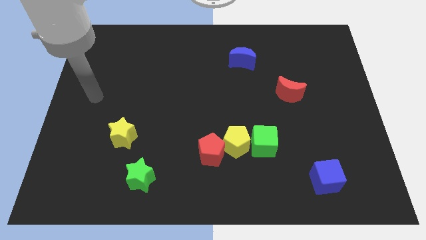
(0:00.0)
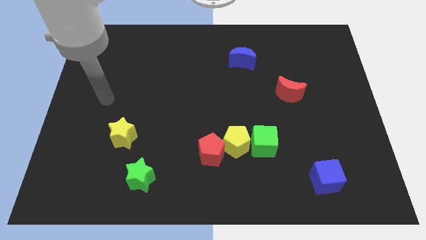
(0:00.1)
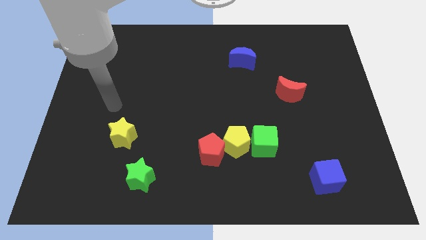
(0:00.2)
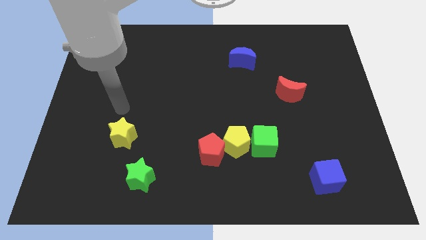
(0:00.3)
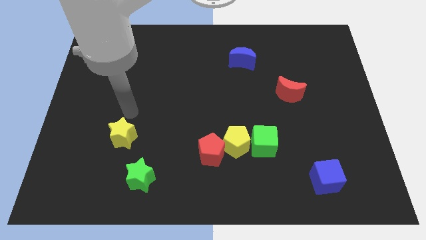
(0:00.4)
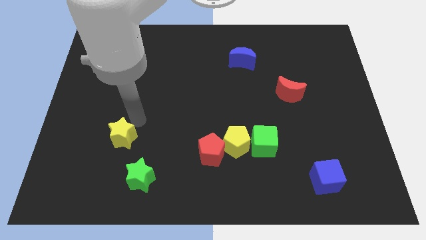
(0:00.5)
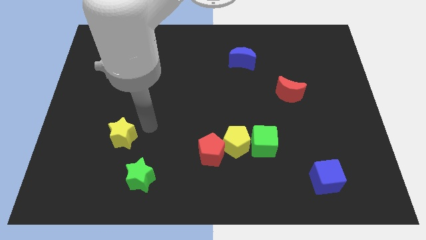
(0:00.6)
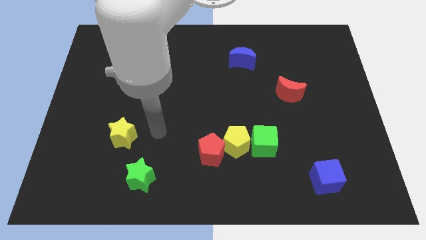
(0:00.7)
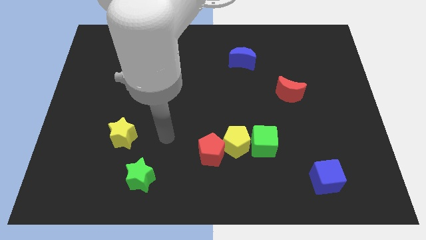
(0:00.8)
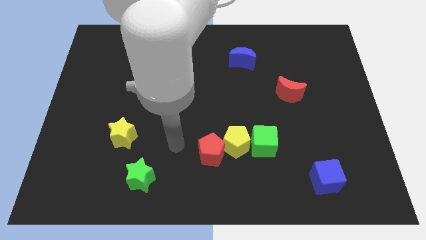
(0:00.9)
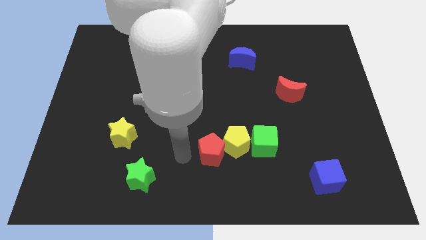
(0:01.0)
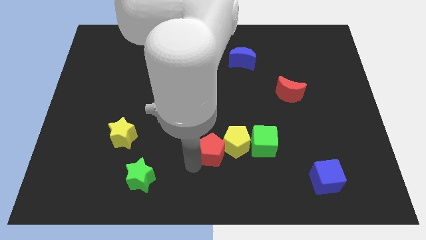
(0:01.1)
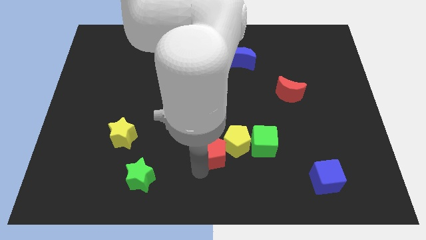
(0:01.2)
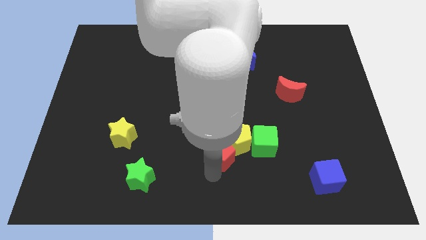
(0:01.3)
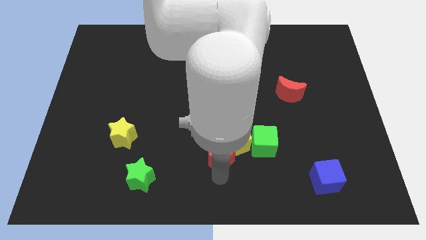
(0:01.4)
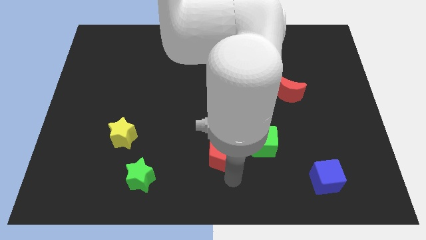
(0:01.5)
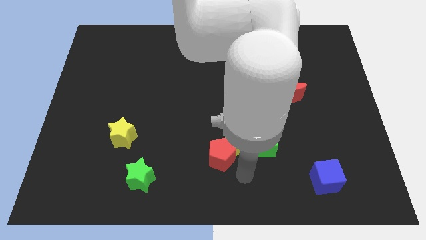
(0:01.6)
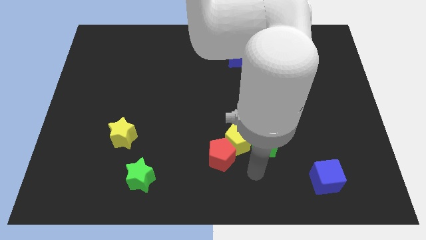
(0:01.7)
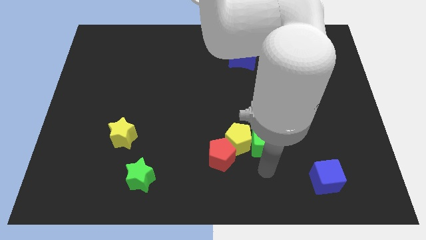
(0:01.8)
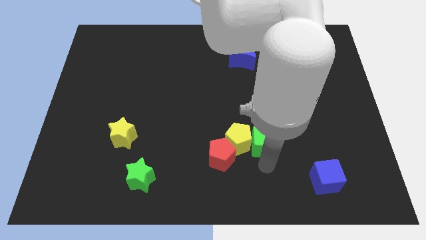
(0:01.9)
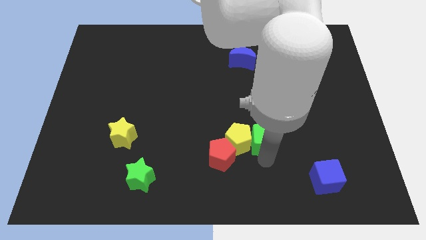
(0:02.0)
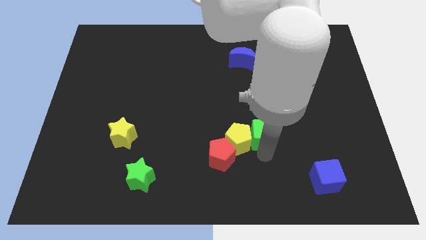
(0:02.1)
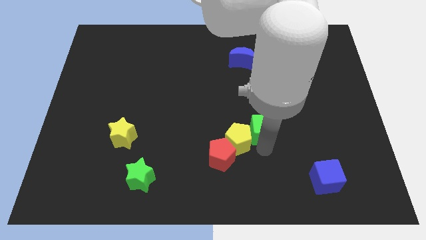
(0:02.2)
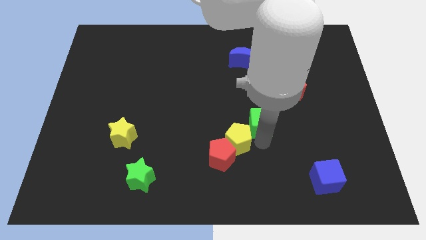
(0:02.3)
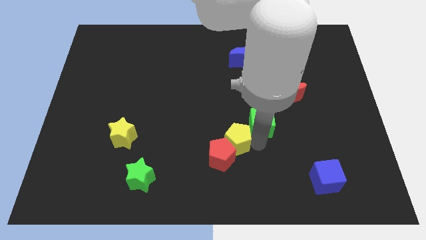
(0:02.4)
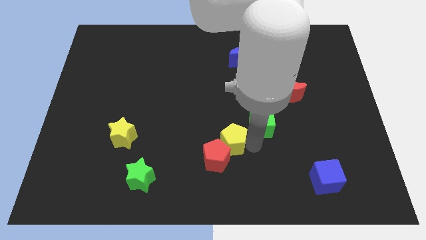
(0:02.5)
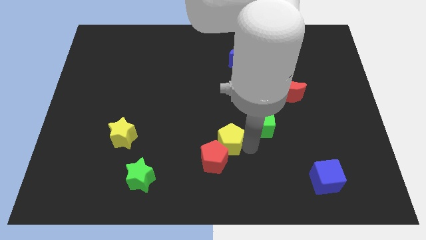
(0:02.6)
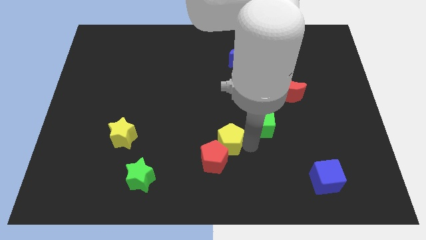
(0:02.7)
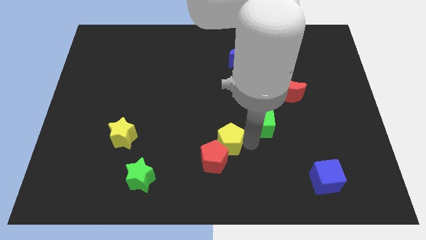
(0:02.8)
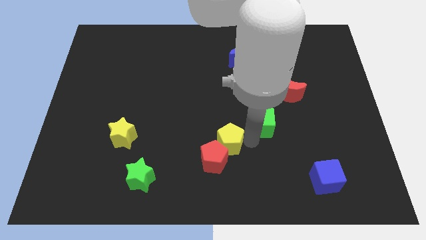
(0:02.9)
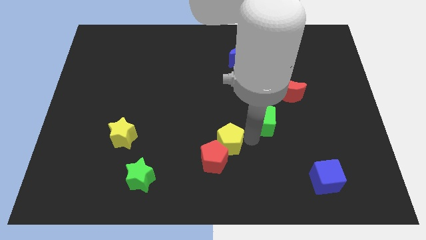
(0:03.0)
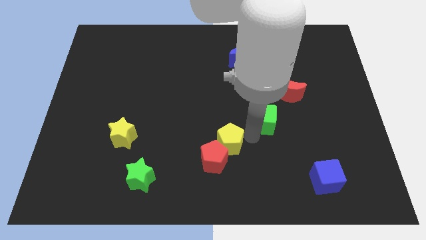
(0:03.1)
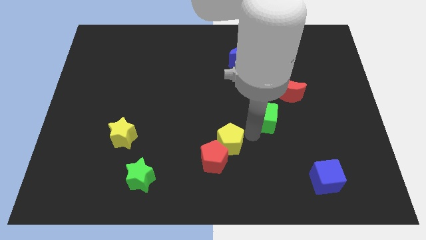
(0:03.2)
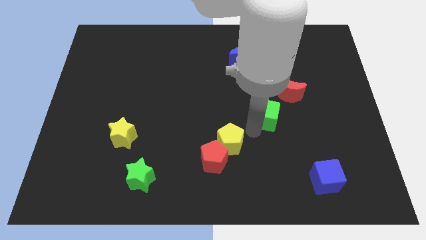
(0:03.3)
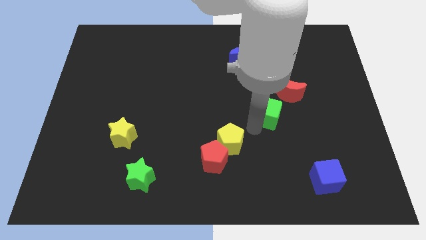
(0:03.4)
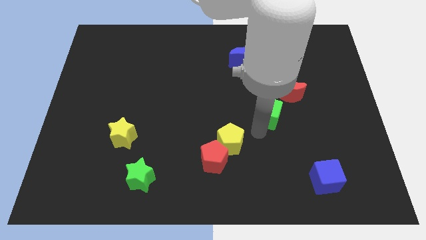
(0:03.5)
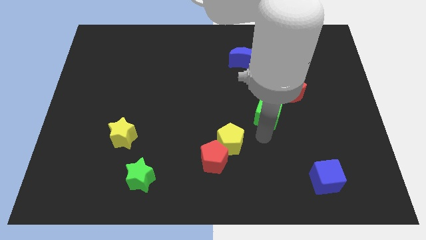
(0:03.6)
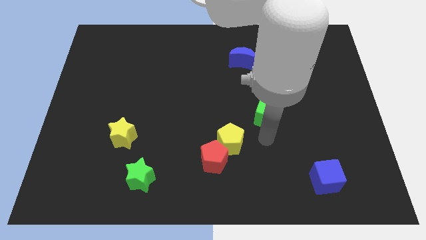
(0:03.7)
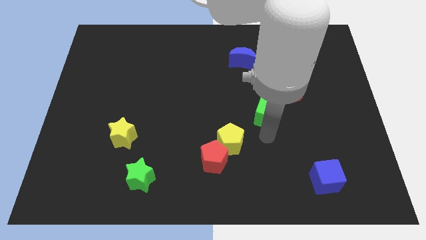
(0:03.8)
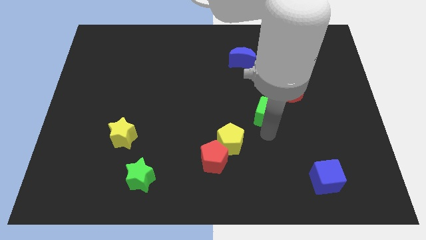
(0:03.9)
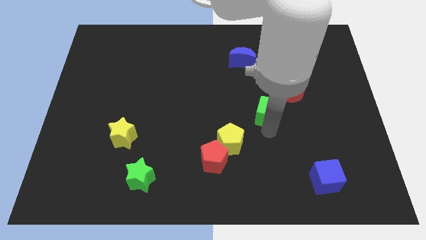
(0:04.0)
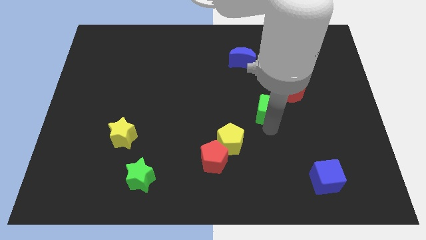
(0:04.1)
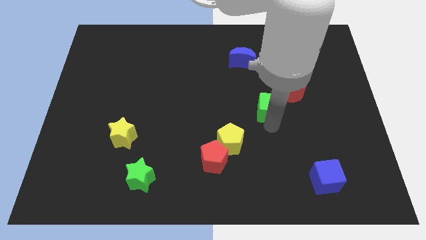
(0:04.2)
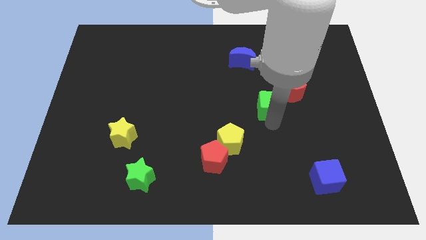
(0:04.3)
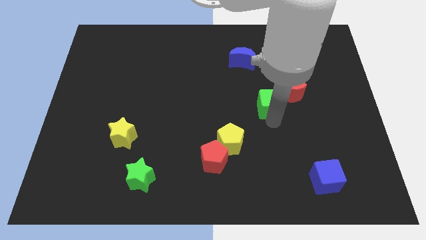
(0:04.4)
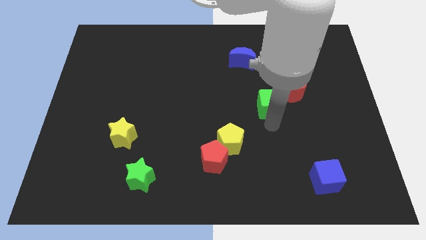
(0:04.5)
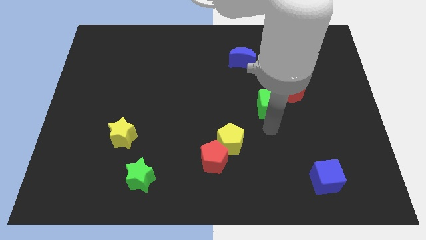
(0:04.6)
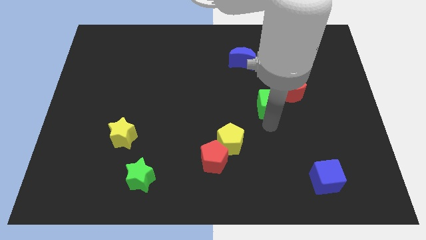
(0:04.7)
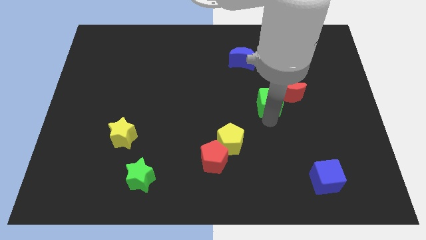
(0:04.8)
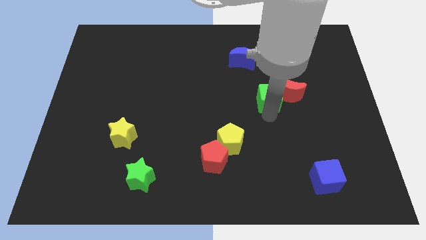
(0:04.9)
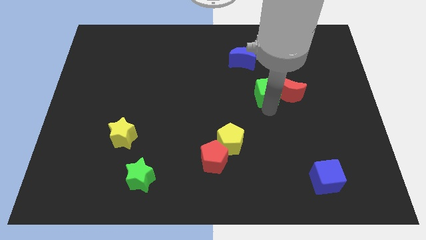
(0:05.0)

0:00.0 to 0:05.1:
put the green cube to the top left of the red moon

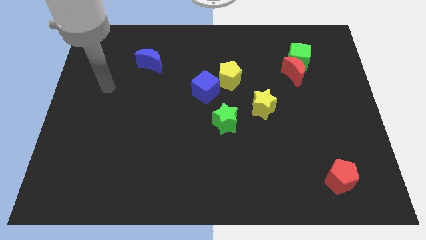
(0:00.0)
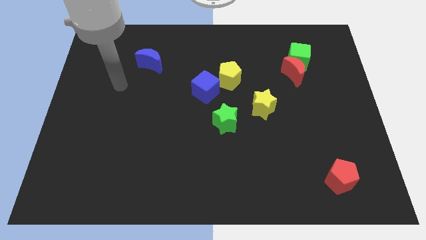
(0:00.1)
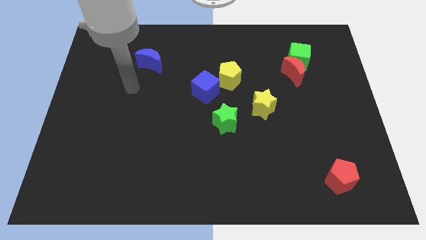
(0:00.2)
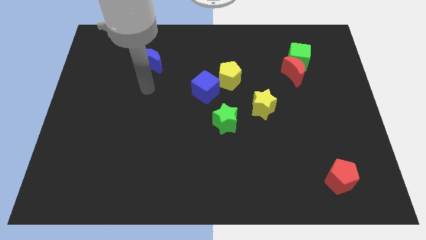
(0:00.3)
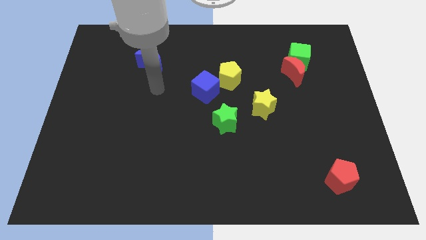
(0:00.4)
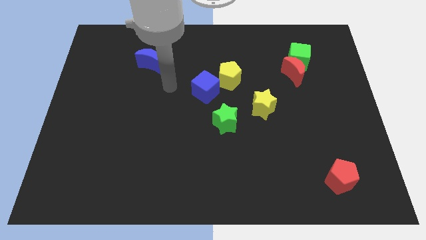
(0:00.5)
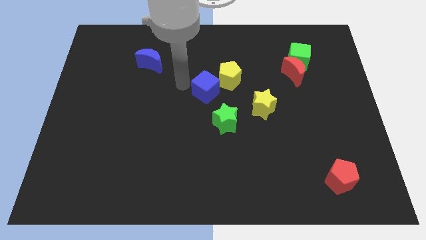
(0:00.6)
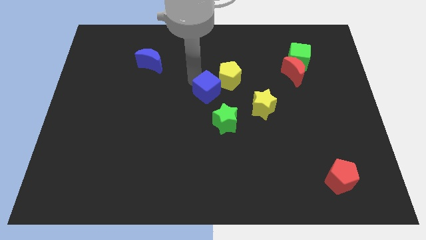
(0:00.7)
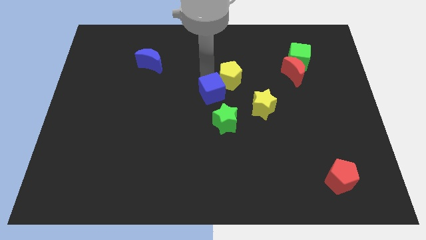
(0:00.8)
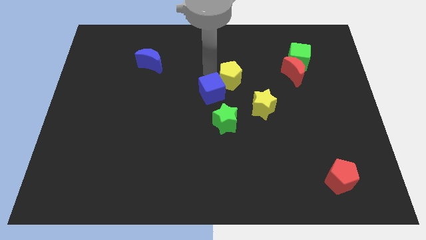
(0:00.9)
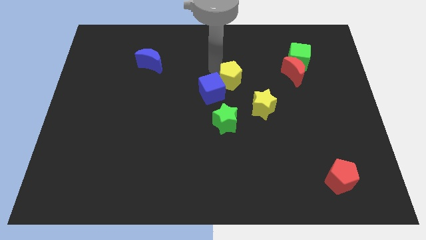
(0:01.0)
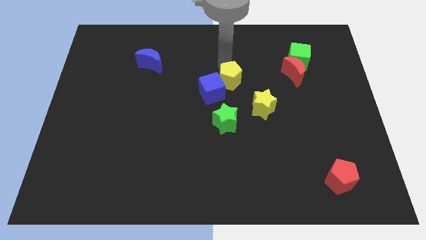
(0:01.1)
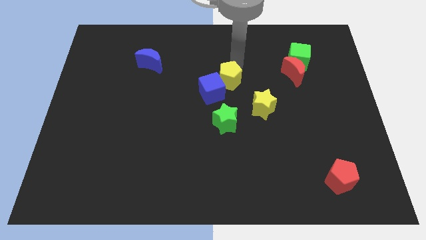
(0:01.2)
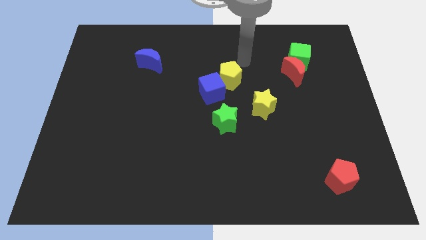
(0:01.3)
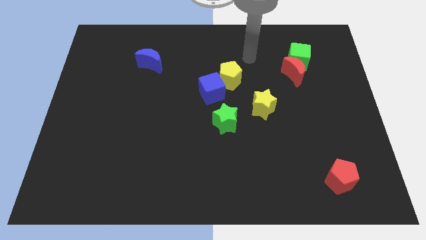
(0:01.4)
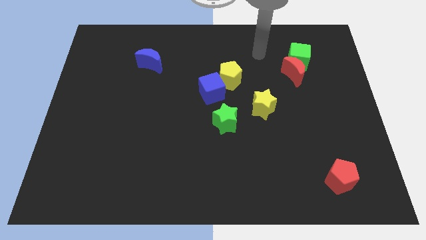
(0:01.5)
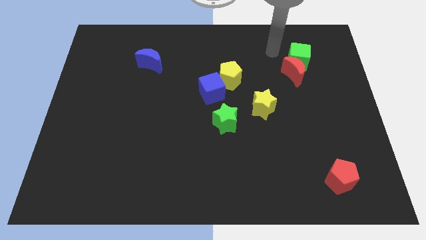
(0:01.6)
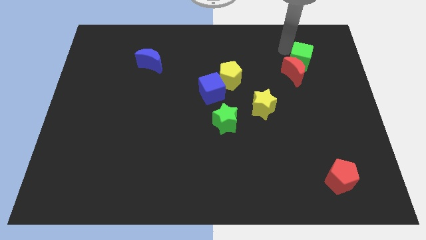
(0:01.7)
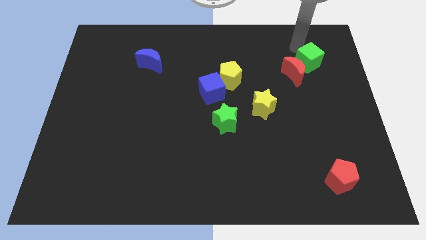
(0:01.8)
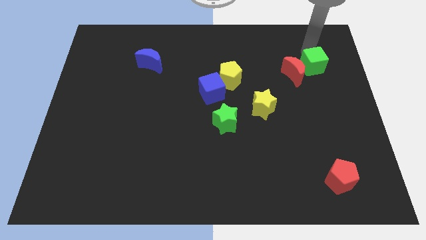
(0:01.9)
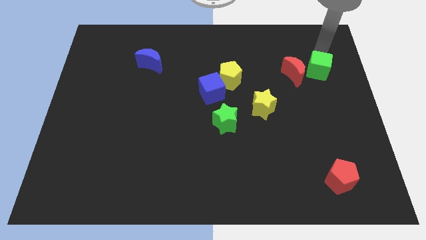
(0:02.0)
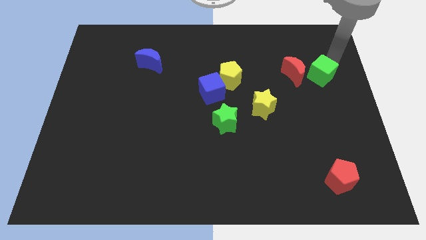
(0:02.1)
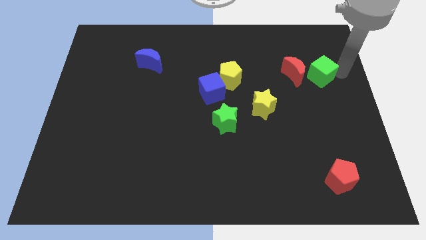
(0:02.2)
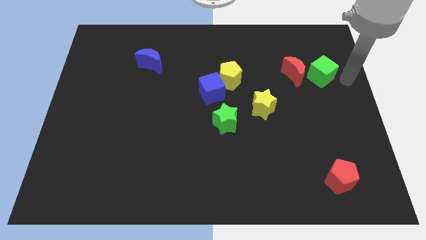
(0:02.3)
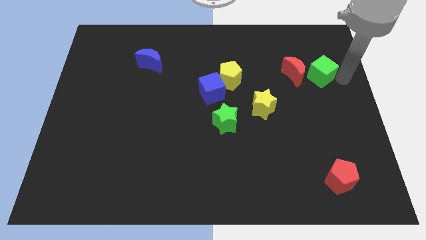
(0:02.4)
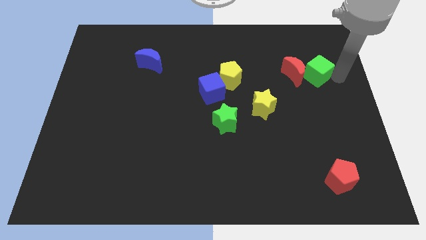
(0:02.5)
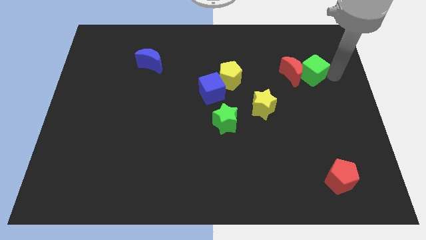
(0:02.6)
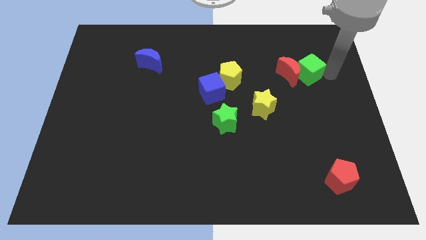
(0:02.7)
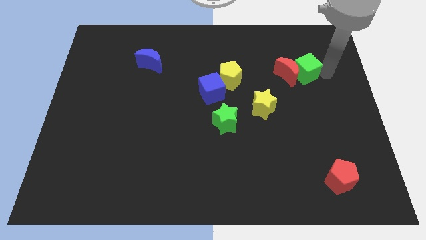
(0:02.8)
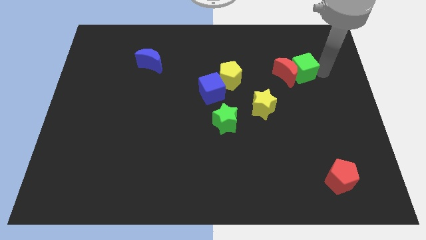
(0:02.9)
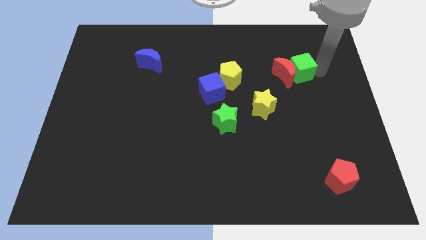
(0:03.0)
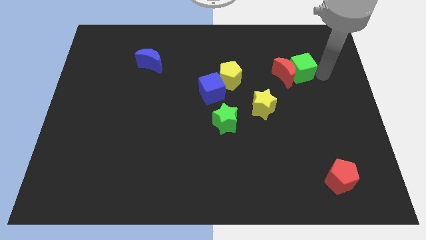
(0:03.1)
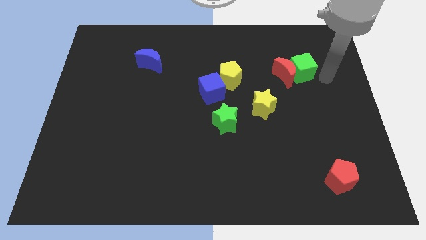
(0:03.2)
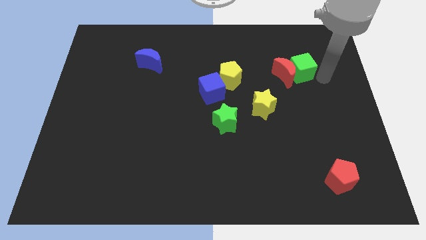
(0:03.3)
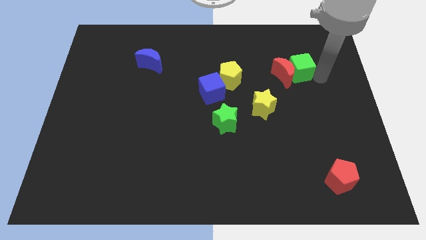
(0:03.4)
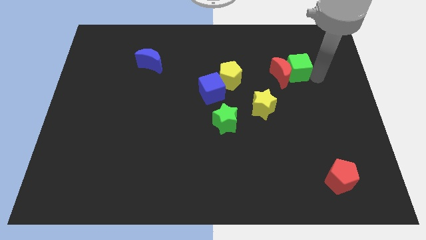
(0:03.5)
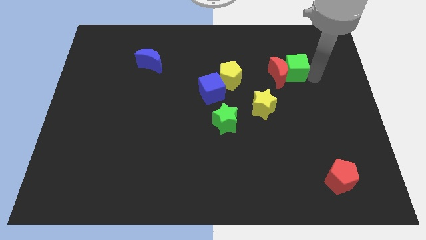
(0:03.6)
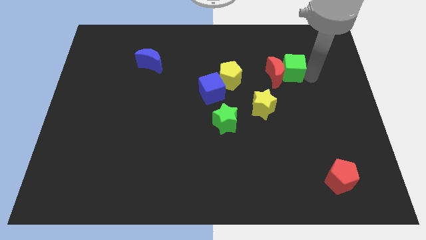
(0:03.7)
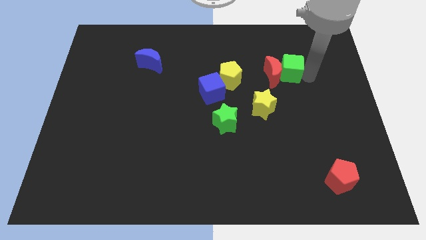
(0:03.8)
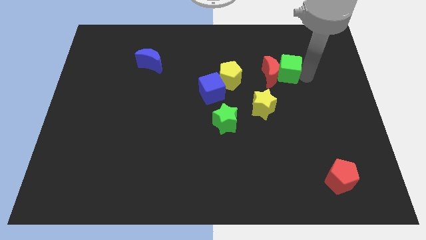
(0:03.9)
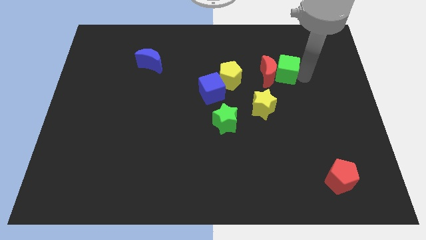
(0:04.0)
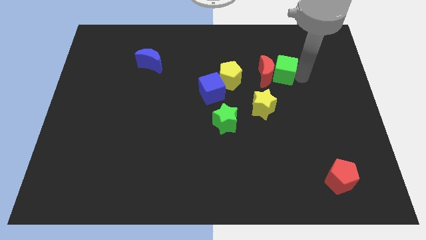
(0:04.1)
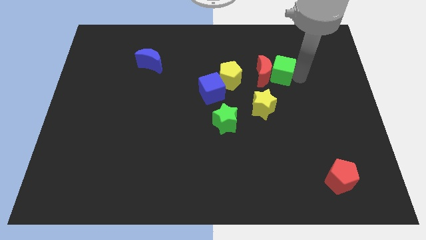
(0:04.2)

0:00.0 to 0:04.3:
push the green cube to the top right of the yellow star
